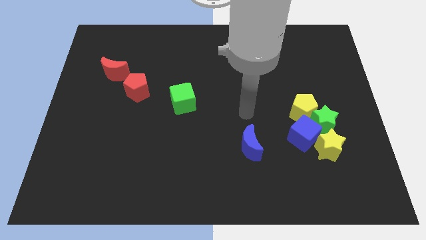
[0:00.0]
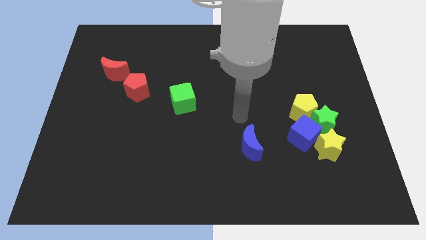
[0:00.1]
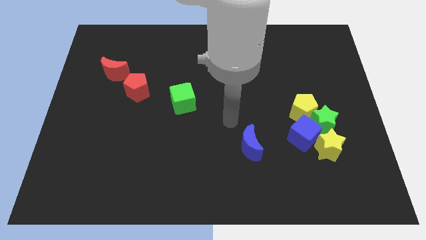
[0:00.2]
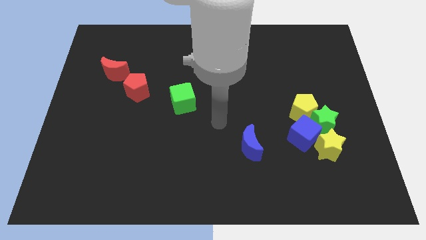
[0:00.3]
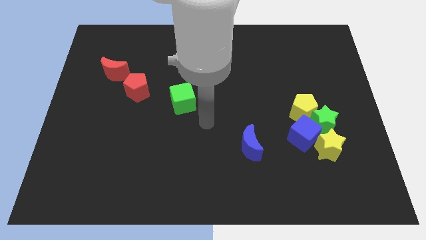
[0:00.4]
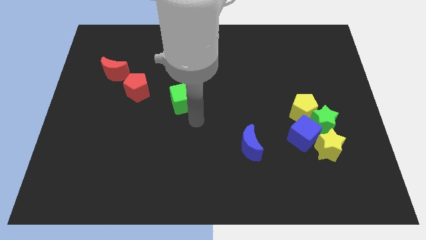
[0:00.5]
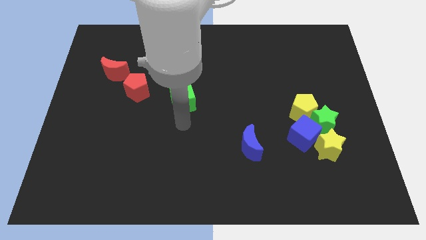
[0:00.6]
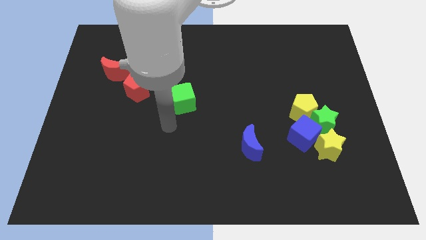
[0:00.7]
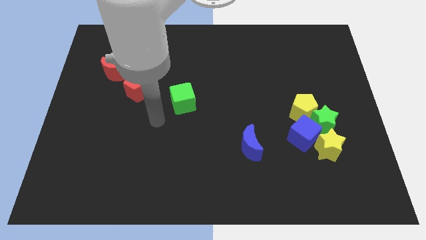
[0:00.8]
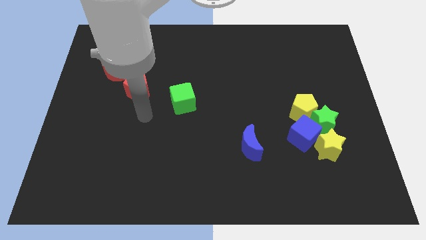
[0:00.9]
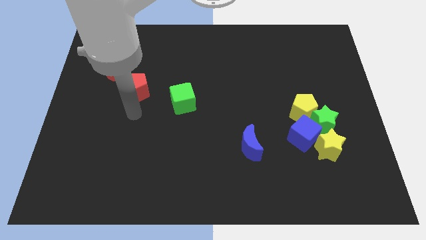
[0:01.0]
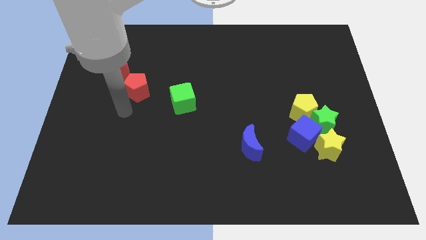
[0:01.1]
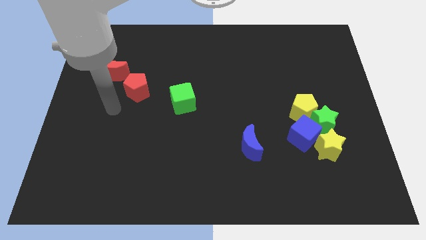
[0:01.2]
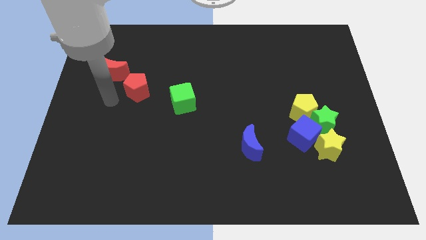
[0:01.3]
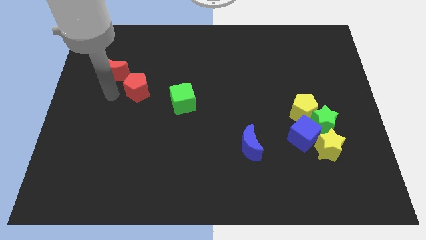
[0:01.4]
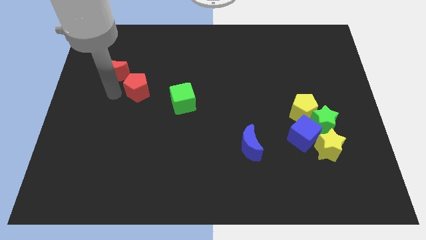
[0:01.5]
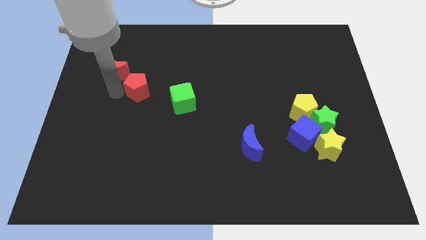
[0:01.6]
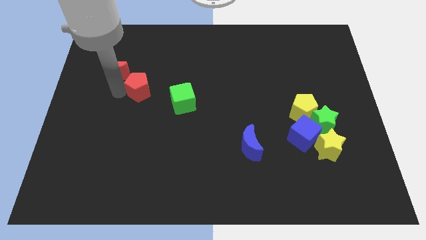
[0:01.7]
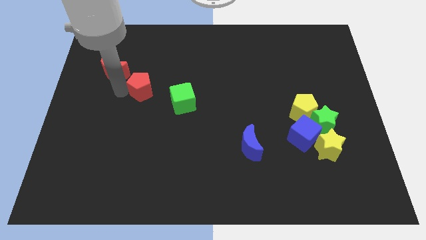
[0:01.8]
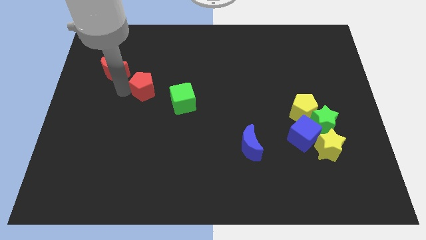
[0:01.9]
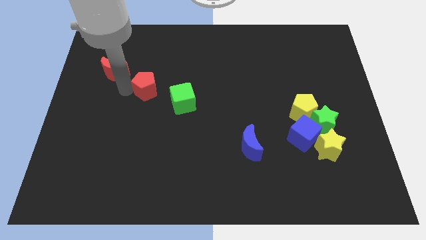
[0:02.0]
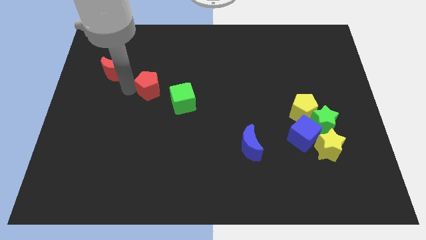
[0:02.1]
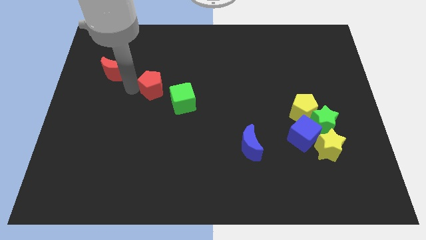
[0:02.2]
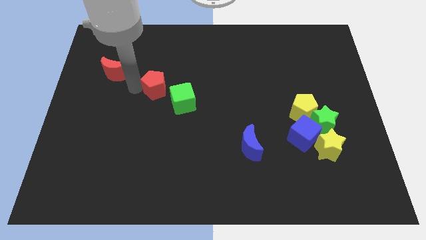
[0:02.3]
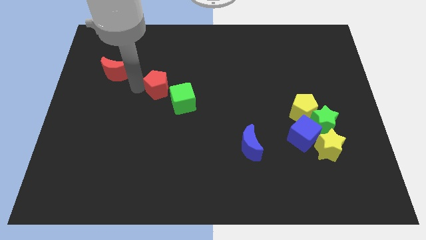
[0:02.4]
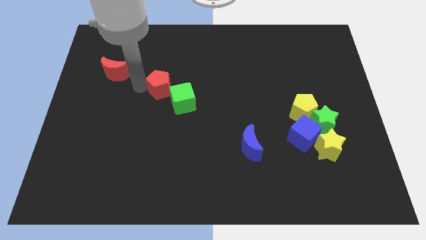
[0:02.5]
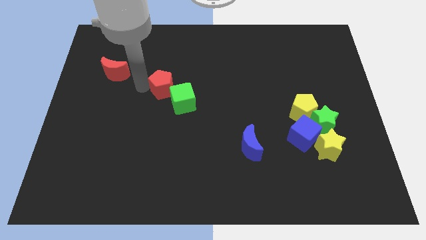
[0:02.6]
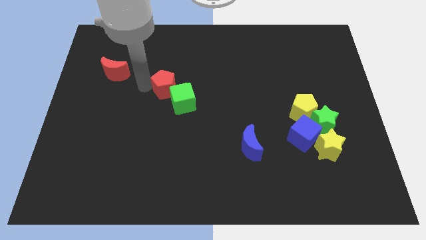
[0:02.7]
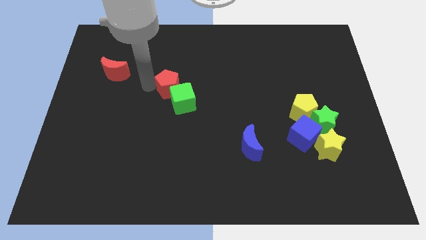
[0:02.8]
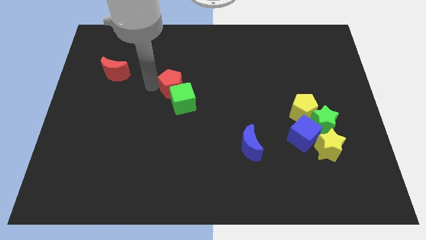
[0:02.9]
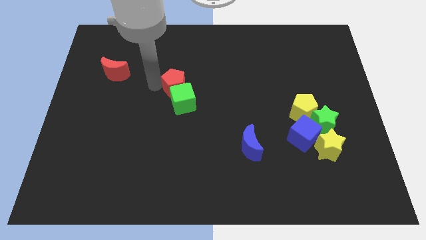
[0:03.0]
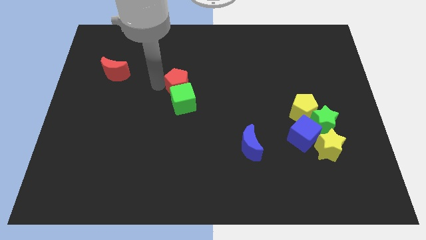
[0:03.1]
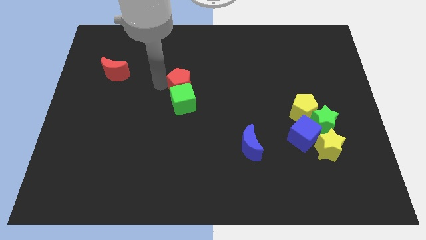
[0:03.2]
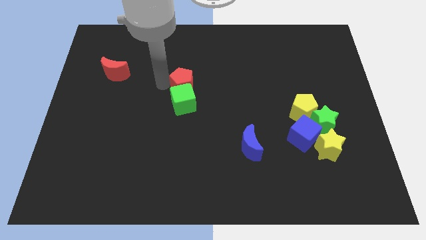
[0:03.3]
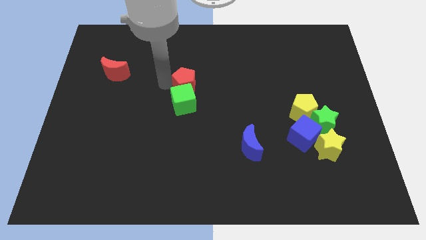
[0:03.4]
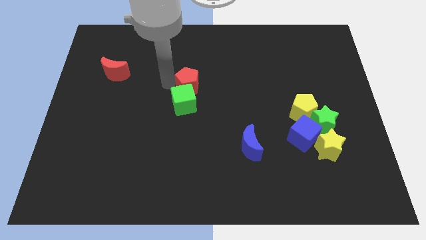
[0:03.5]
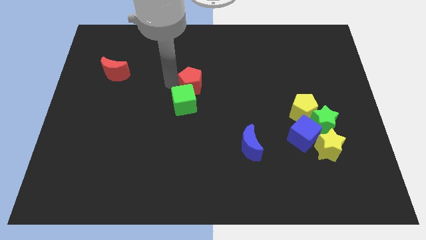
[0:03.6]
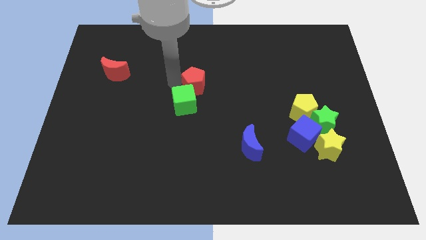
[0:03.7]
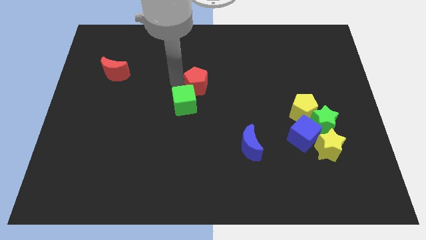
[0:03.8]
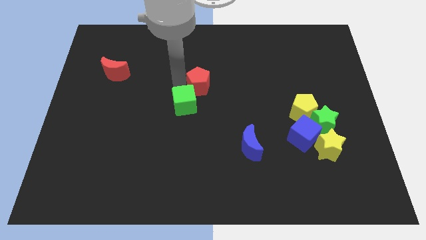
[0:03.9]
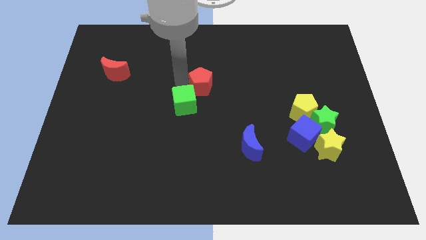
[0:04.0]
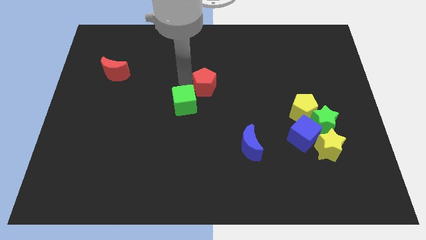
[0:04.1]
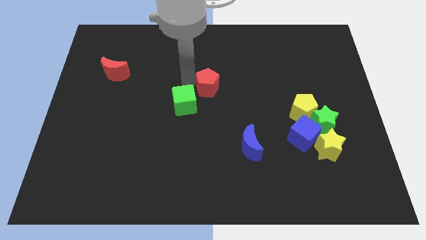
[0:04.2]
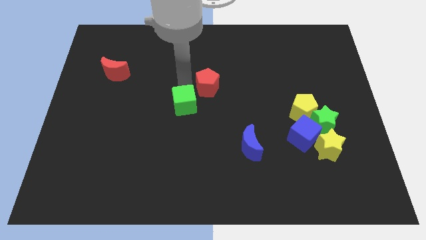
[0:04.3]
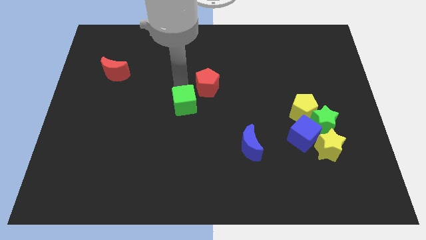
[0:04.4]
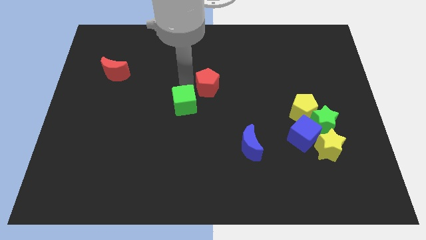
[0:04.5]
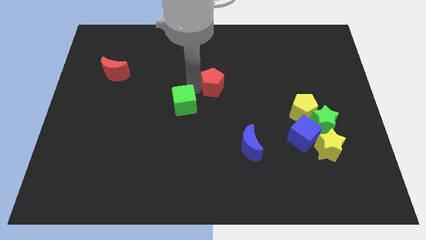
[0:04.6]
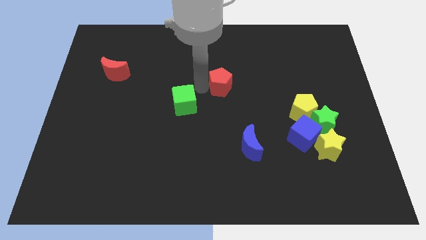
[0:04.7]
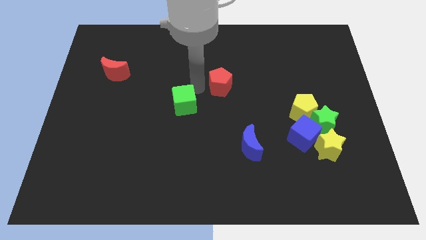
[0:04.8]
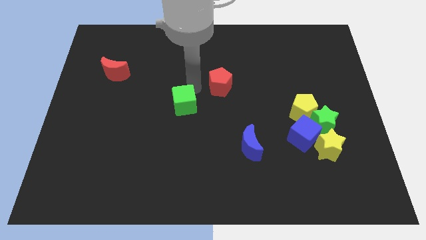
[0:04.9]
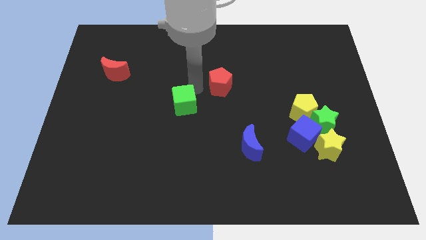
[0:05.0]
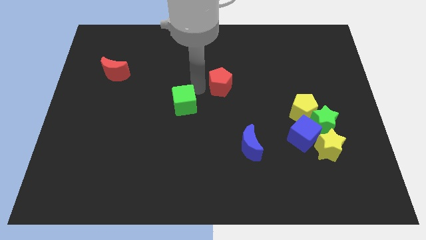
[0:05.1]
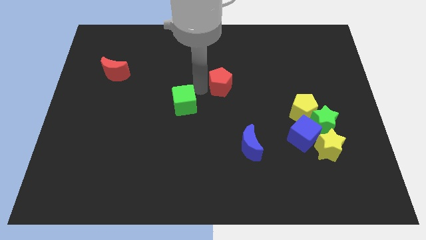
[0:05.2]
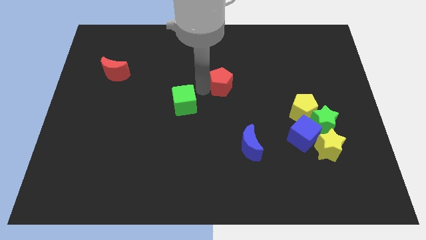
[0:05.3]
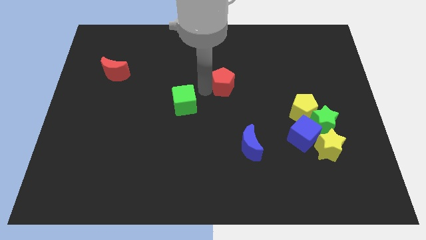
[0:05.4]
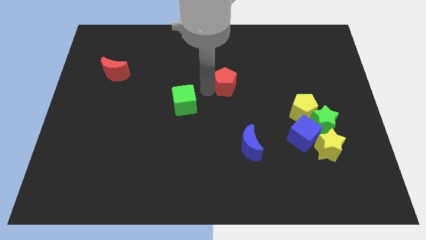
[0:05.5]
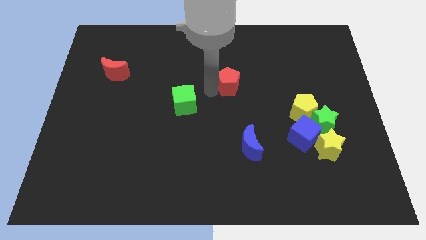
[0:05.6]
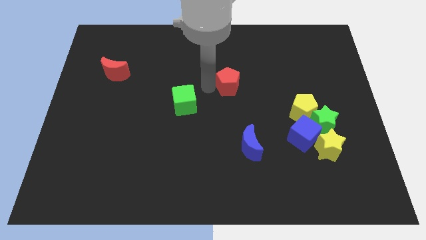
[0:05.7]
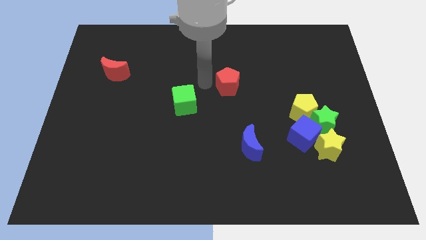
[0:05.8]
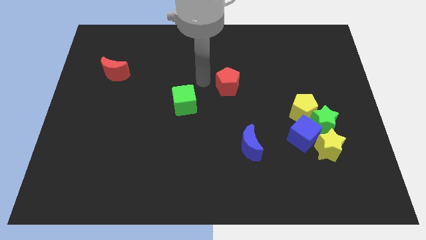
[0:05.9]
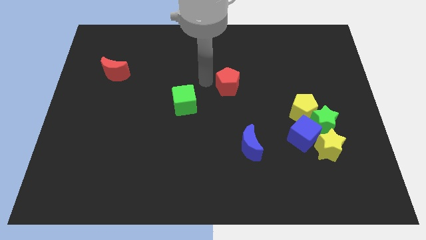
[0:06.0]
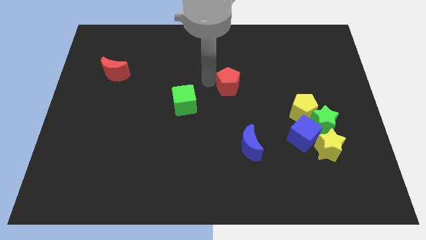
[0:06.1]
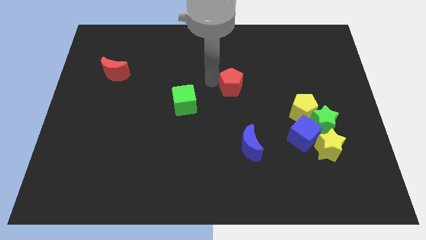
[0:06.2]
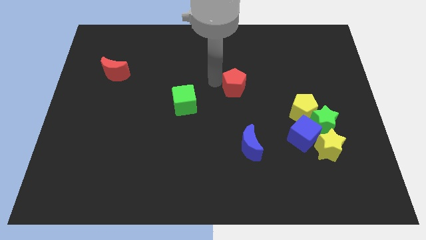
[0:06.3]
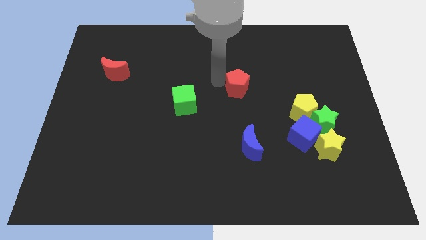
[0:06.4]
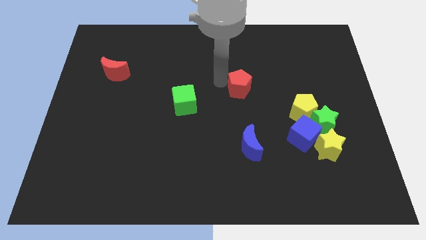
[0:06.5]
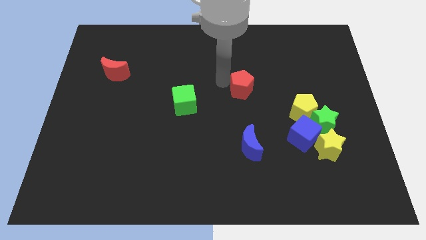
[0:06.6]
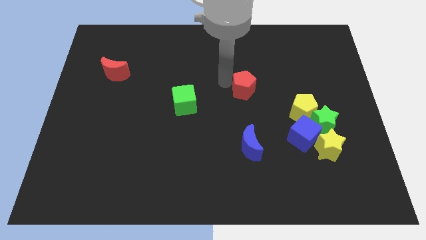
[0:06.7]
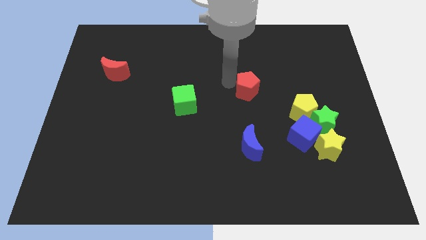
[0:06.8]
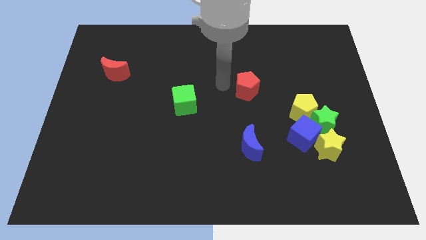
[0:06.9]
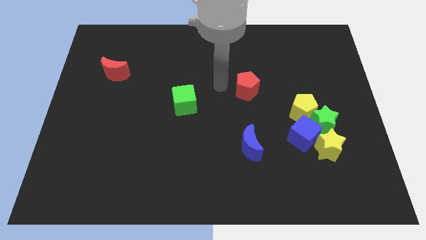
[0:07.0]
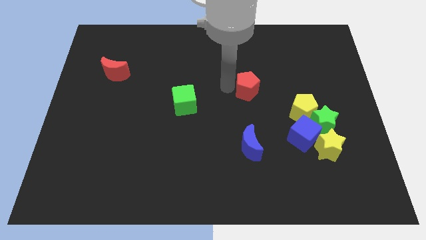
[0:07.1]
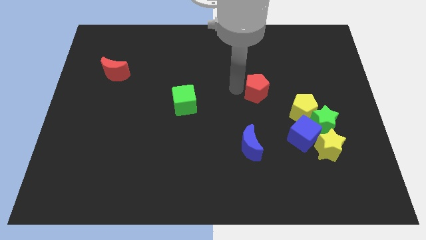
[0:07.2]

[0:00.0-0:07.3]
put the red pentagon to the top left of the yellow pentagon
